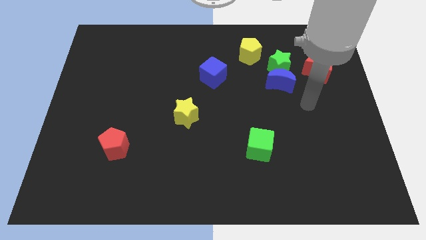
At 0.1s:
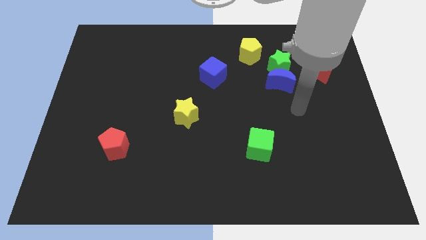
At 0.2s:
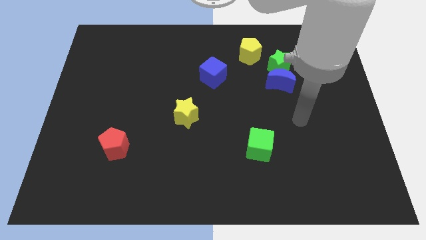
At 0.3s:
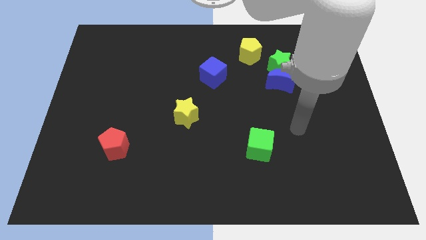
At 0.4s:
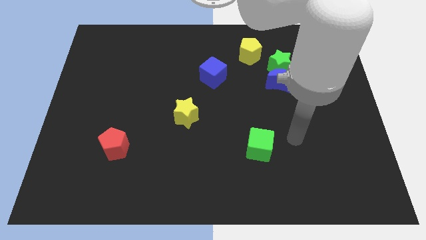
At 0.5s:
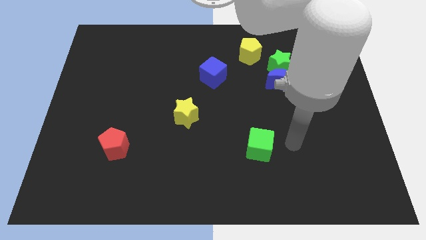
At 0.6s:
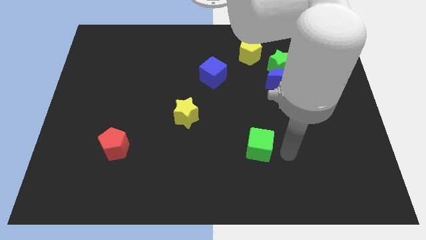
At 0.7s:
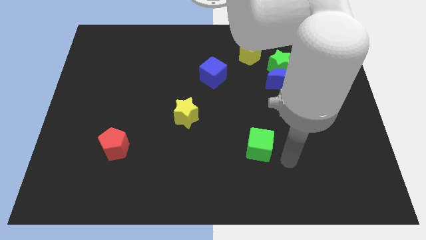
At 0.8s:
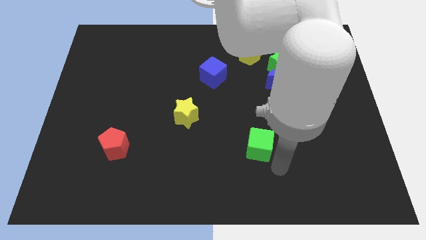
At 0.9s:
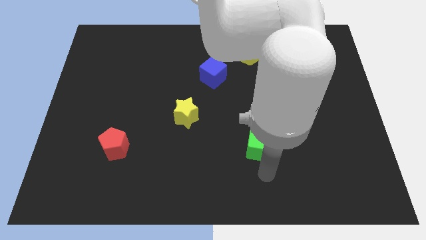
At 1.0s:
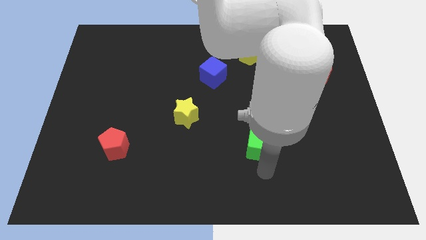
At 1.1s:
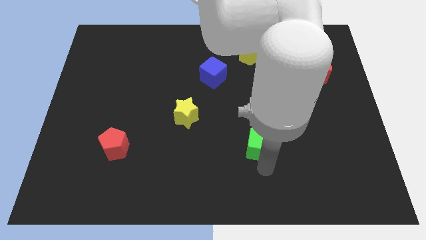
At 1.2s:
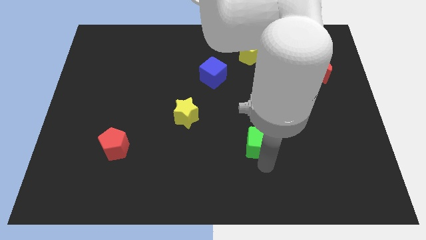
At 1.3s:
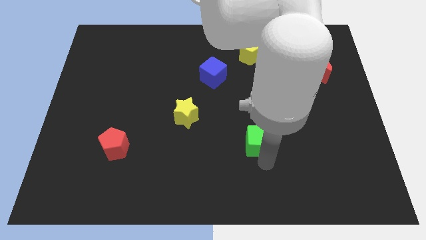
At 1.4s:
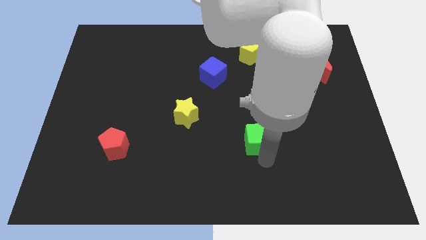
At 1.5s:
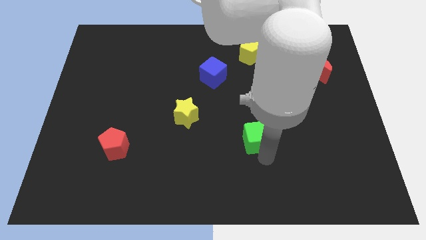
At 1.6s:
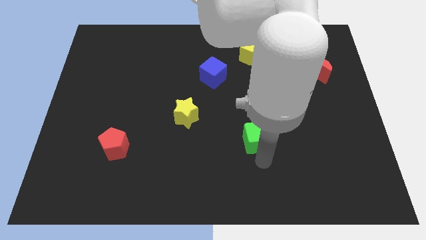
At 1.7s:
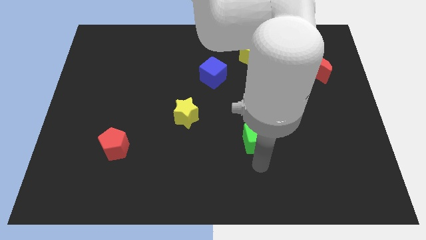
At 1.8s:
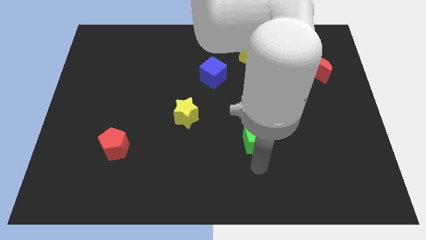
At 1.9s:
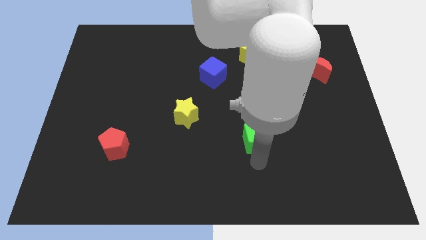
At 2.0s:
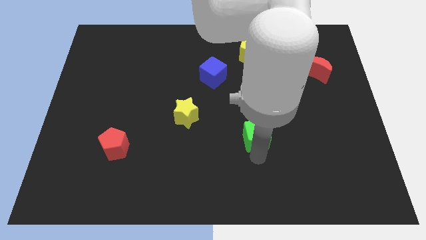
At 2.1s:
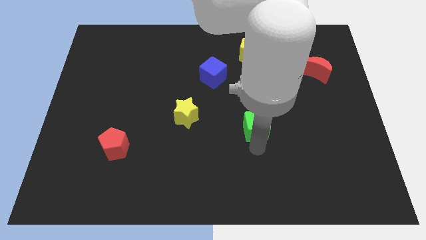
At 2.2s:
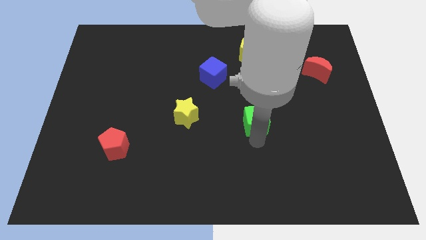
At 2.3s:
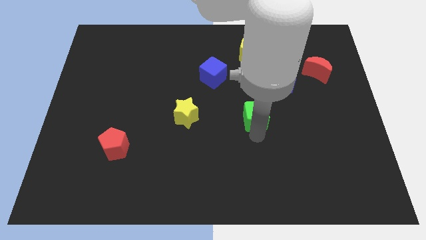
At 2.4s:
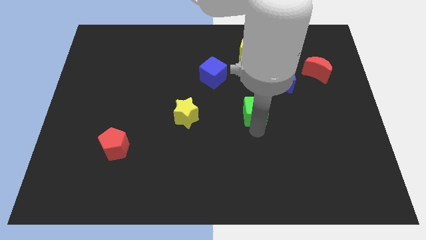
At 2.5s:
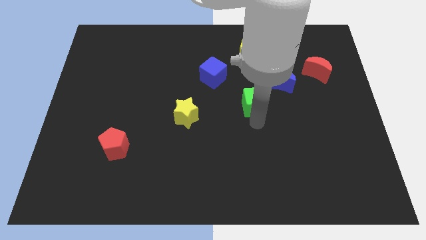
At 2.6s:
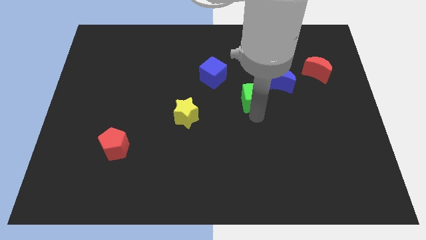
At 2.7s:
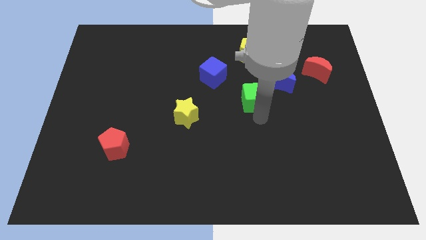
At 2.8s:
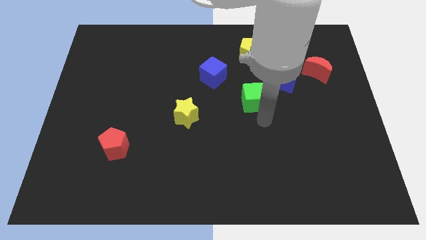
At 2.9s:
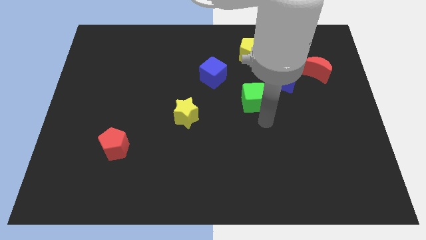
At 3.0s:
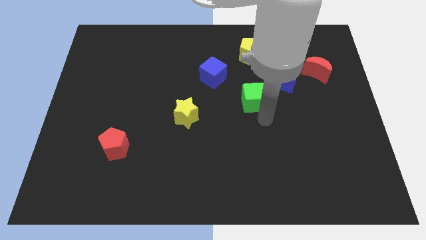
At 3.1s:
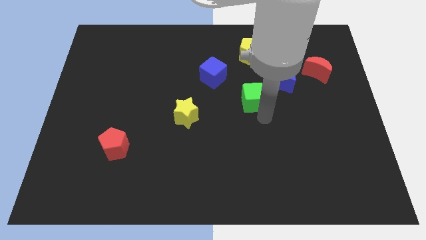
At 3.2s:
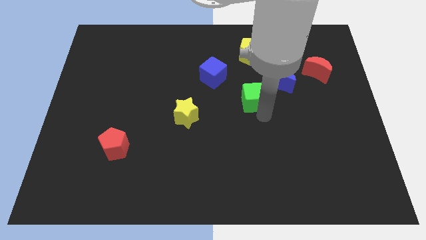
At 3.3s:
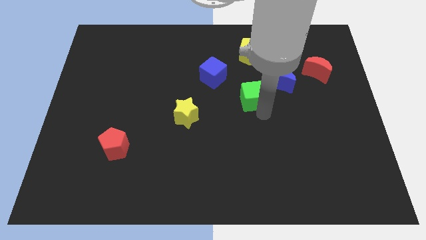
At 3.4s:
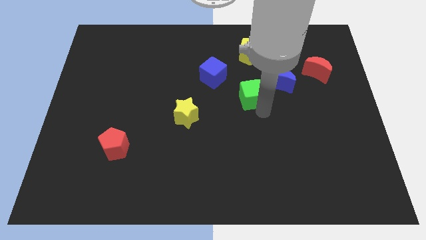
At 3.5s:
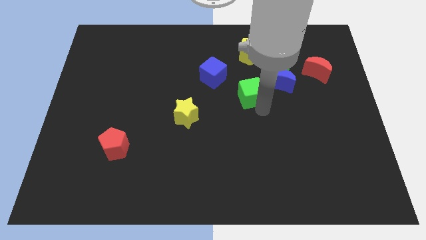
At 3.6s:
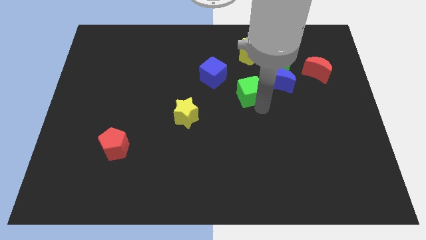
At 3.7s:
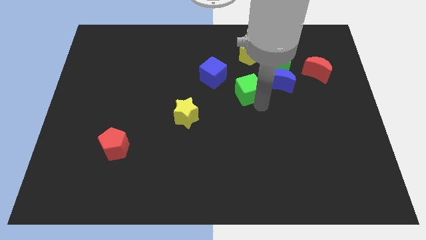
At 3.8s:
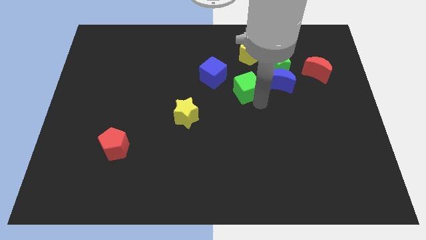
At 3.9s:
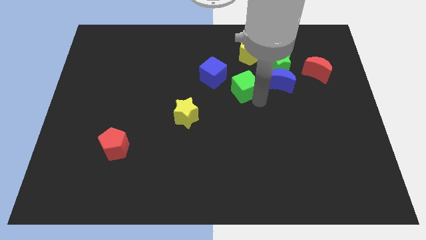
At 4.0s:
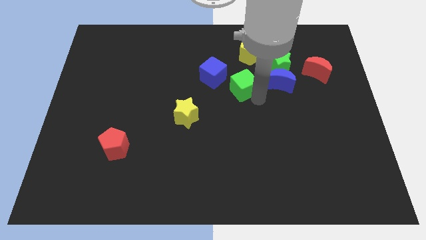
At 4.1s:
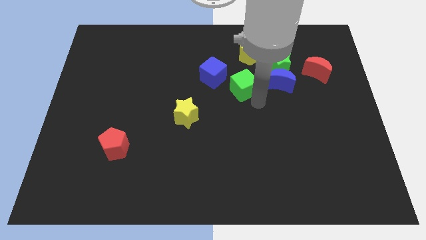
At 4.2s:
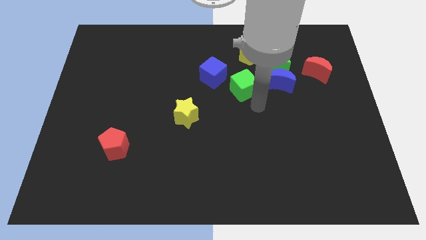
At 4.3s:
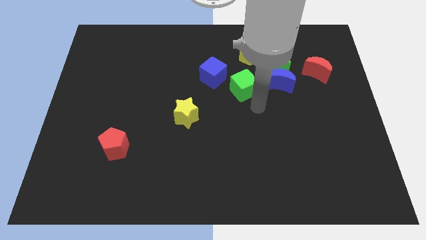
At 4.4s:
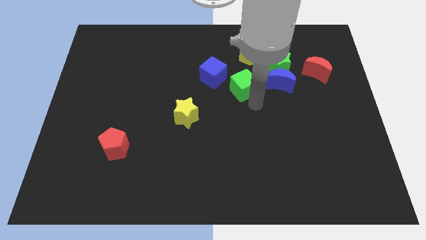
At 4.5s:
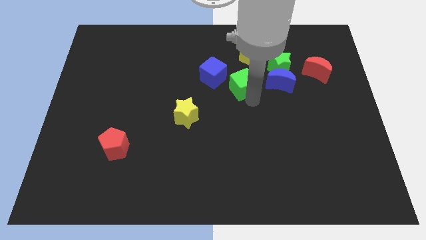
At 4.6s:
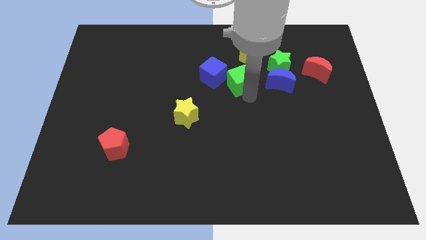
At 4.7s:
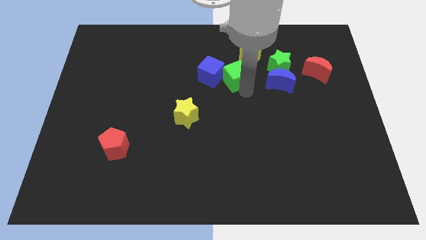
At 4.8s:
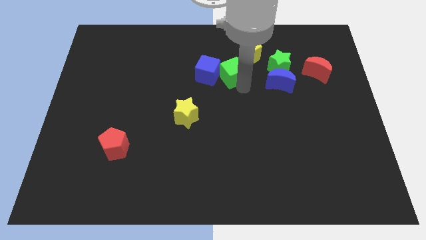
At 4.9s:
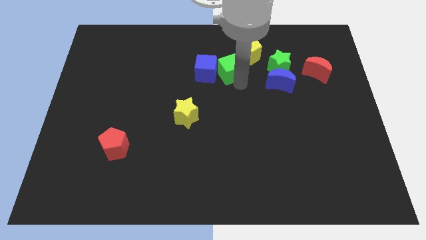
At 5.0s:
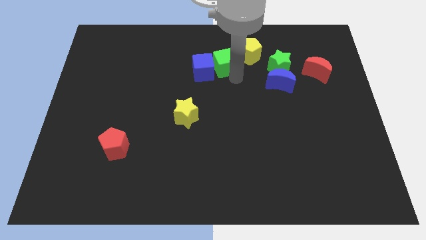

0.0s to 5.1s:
slide the green cube left of the yellow pentagon

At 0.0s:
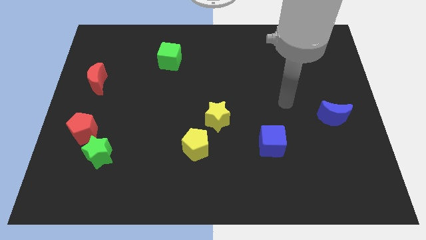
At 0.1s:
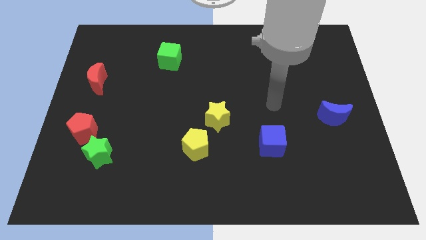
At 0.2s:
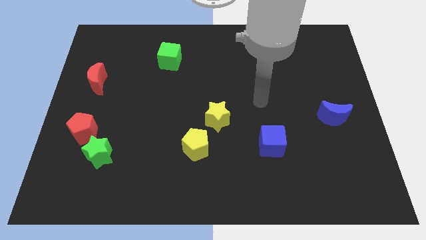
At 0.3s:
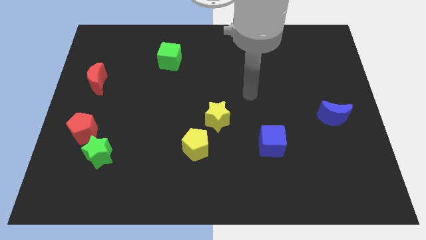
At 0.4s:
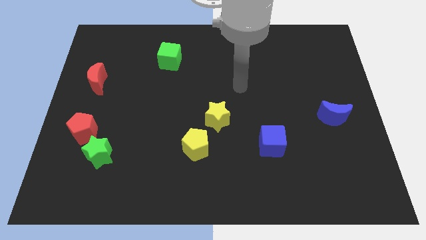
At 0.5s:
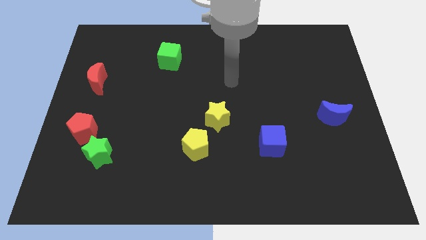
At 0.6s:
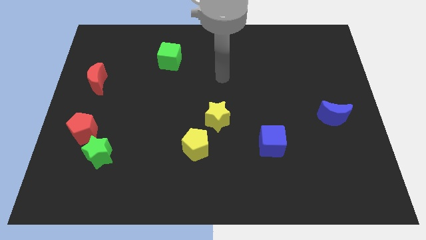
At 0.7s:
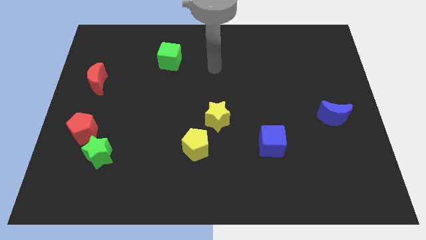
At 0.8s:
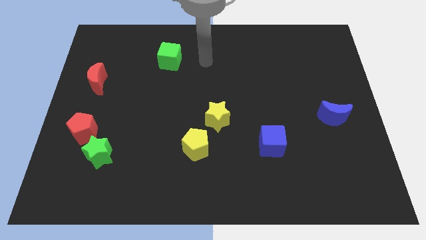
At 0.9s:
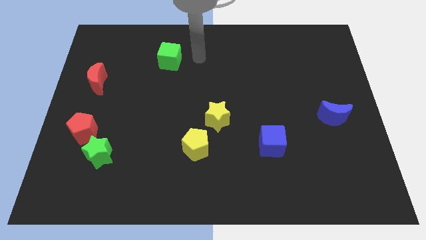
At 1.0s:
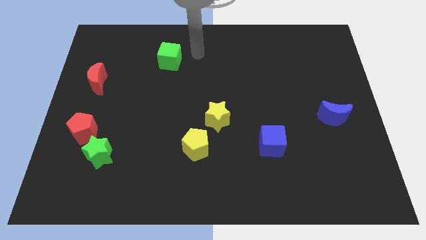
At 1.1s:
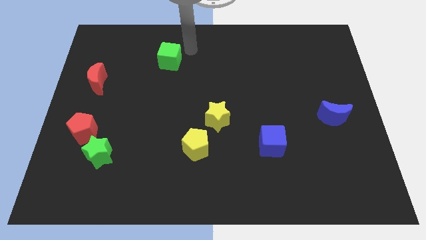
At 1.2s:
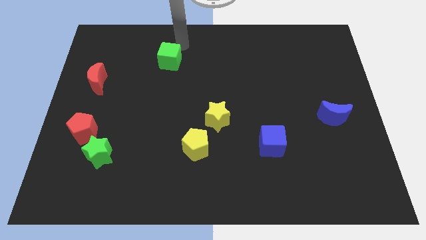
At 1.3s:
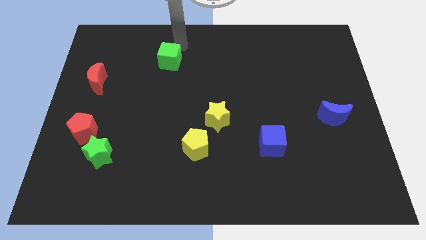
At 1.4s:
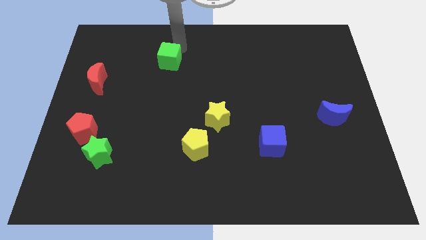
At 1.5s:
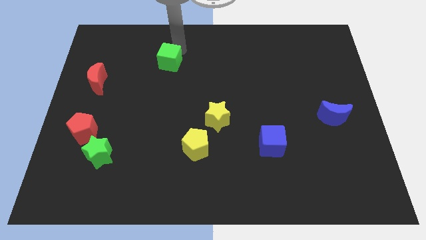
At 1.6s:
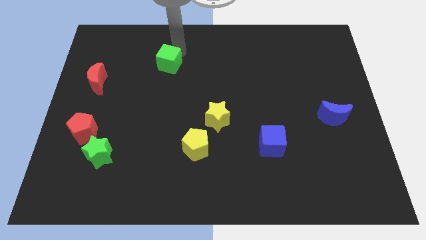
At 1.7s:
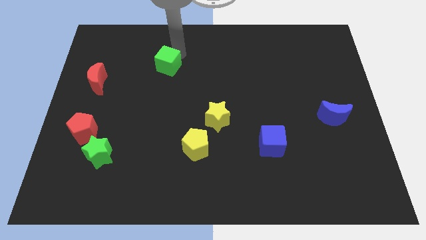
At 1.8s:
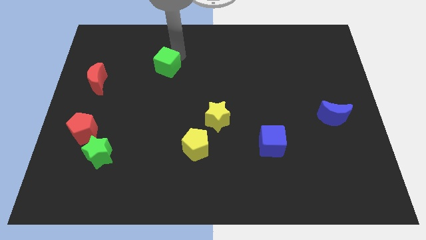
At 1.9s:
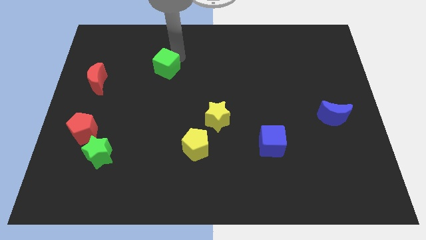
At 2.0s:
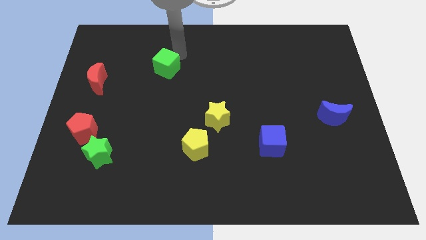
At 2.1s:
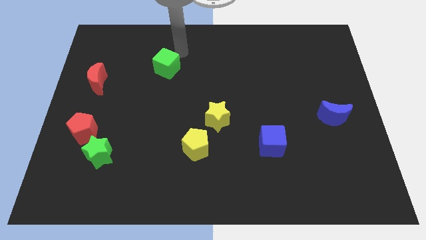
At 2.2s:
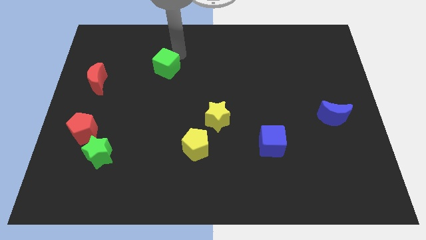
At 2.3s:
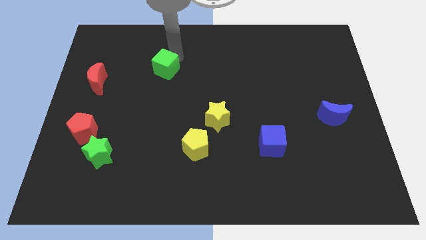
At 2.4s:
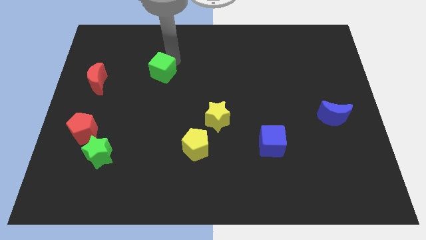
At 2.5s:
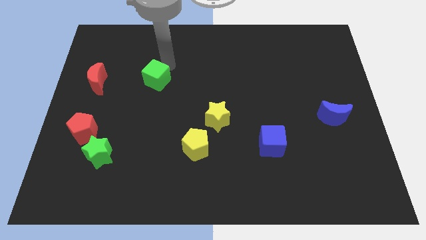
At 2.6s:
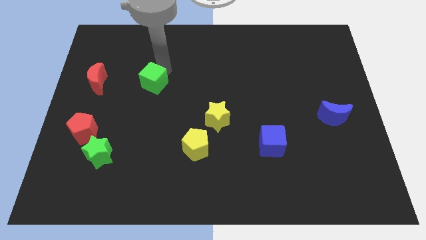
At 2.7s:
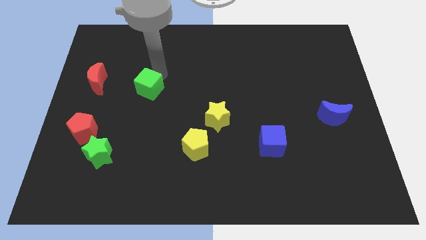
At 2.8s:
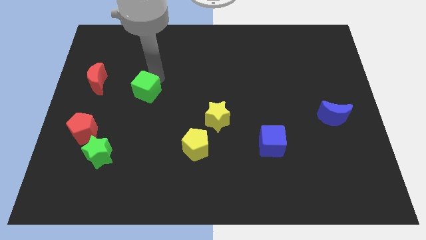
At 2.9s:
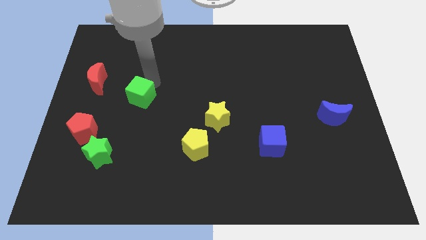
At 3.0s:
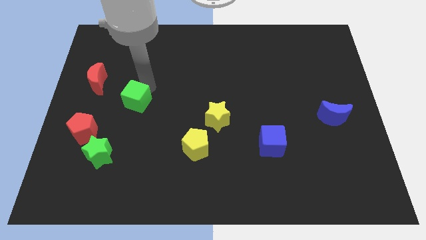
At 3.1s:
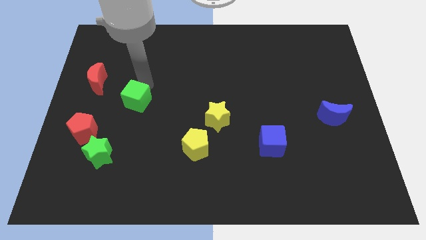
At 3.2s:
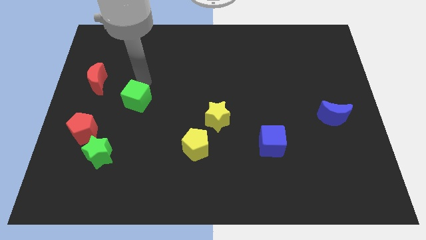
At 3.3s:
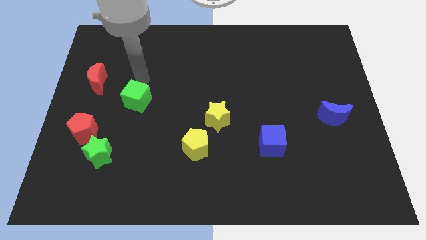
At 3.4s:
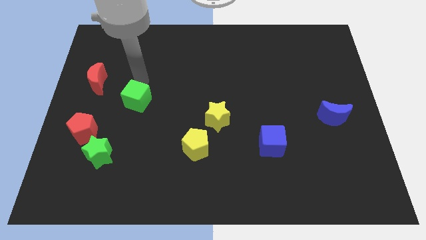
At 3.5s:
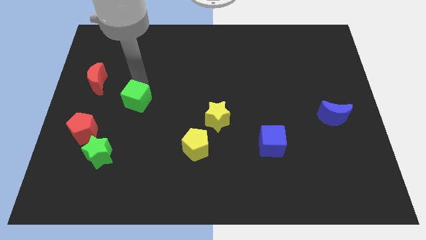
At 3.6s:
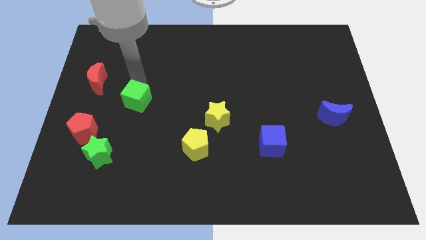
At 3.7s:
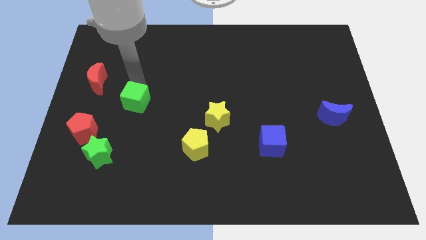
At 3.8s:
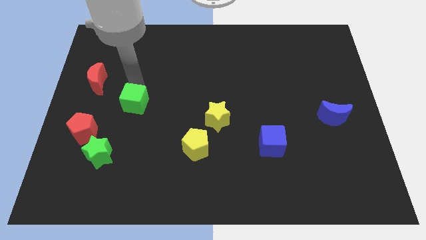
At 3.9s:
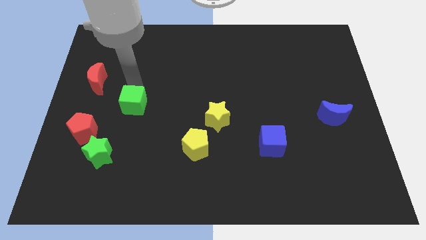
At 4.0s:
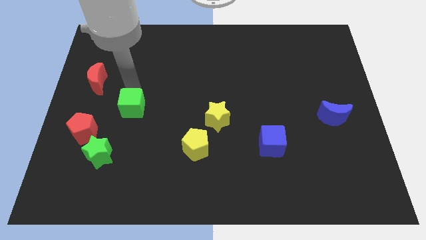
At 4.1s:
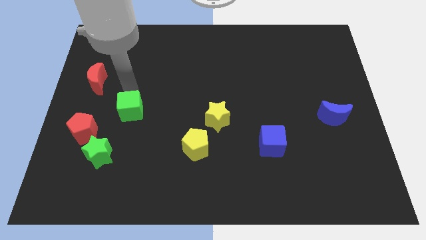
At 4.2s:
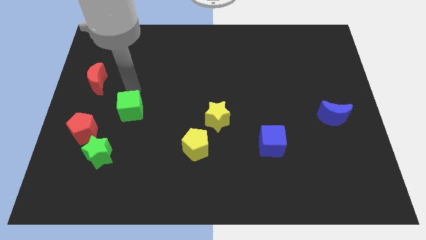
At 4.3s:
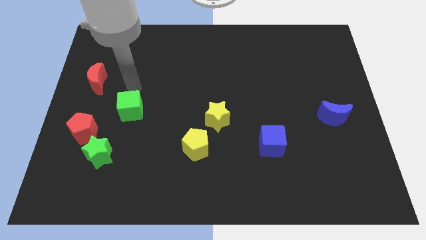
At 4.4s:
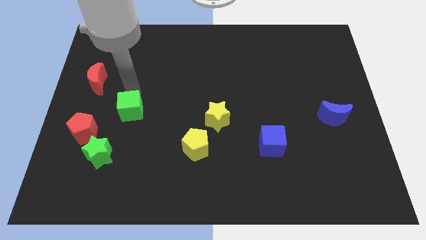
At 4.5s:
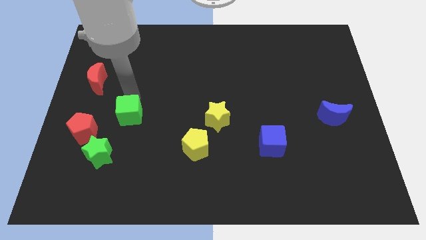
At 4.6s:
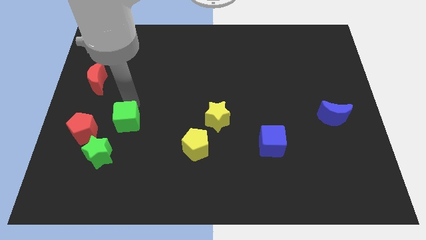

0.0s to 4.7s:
put the green cube to the top right of the green star
